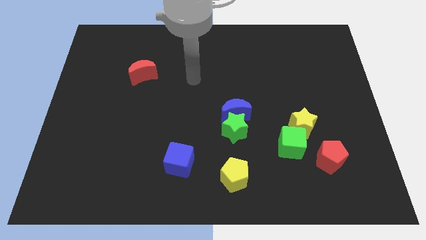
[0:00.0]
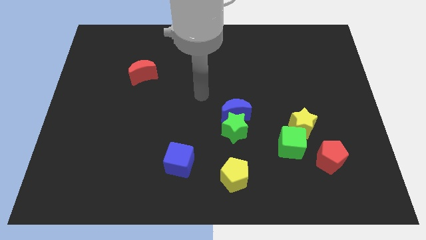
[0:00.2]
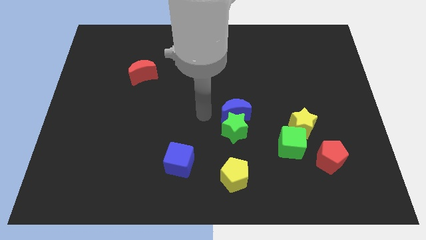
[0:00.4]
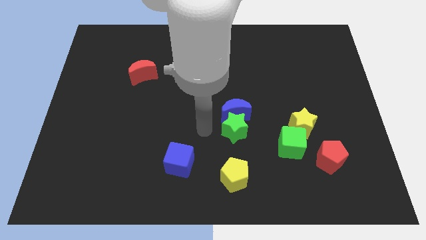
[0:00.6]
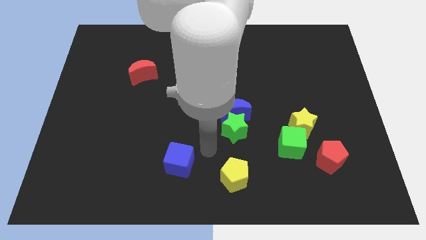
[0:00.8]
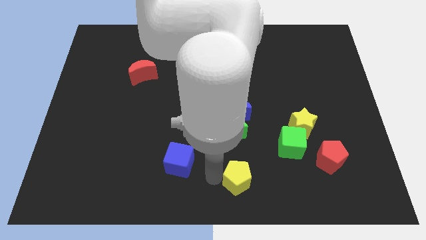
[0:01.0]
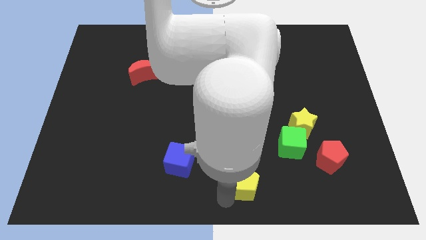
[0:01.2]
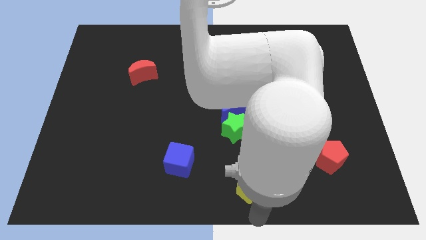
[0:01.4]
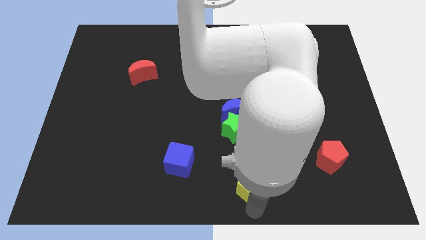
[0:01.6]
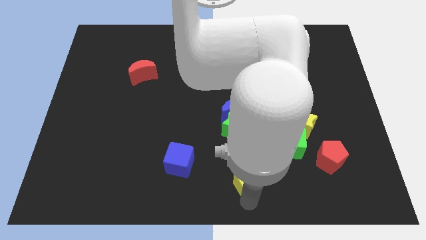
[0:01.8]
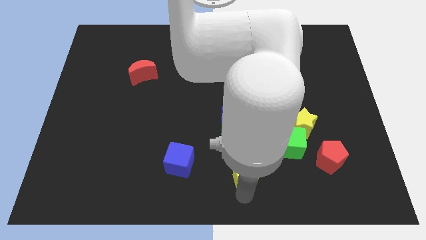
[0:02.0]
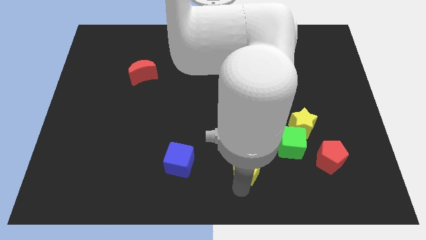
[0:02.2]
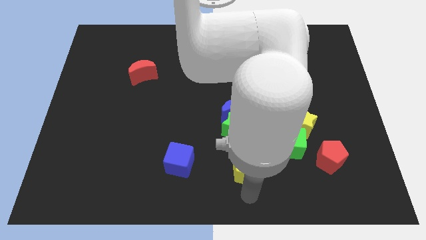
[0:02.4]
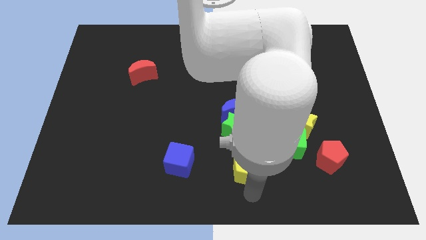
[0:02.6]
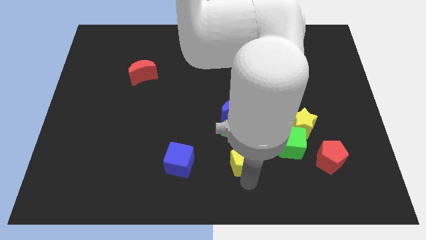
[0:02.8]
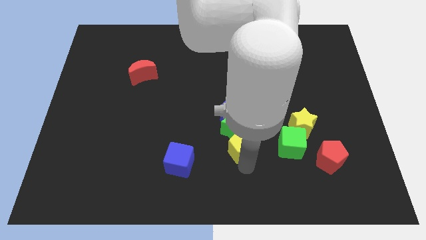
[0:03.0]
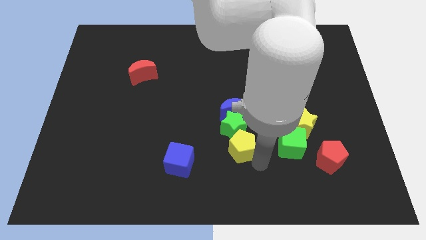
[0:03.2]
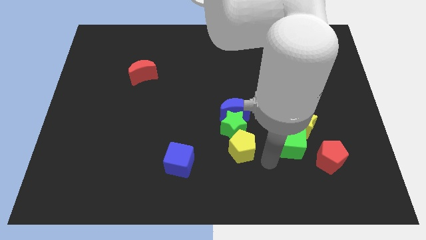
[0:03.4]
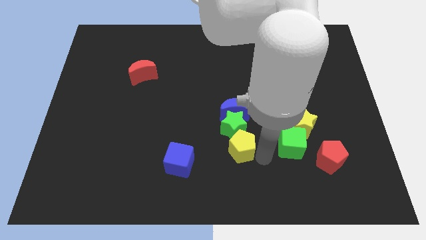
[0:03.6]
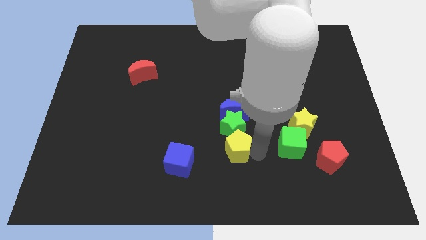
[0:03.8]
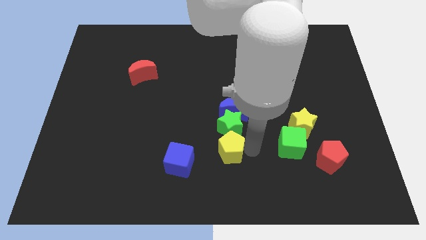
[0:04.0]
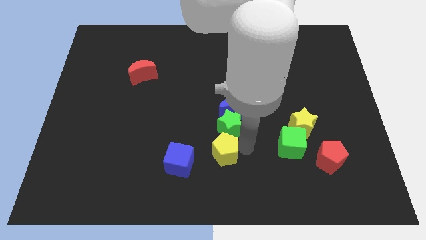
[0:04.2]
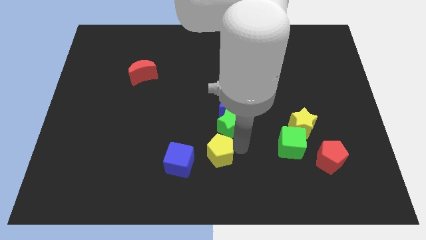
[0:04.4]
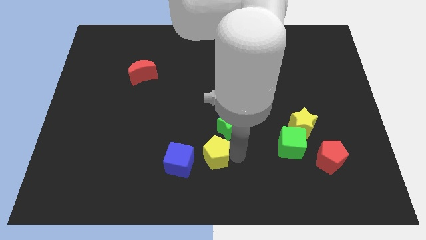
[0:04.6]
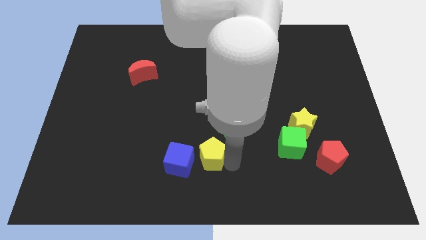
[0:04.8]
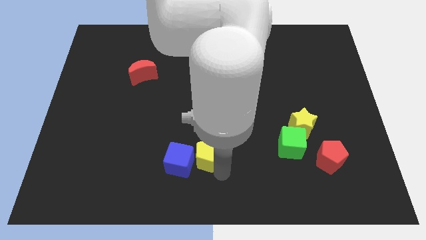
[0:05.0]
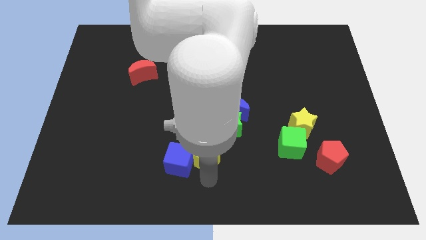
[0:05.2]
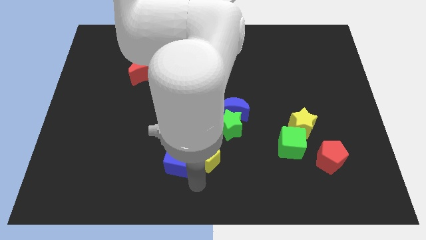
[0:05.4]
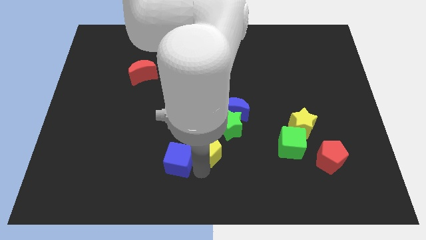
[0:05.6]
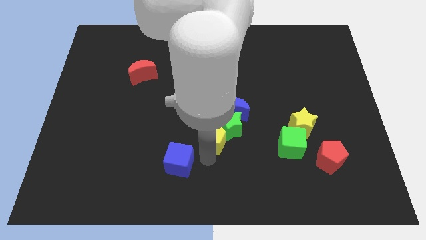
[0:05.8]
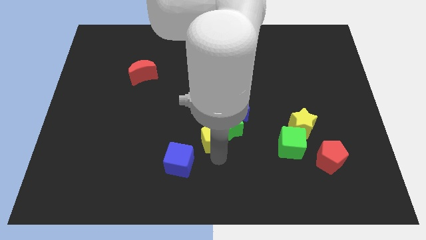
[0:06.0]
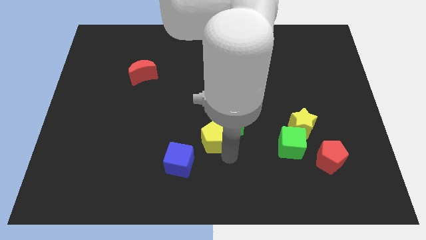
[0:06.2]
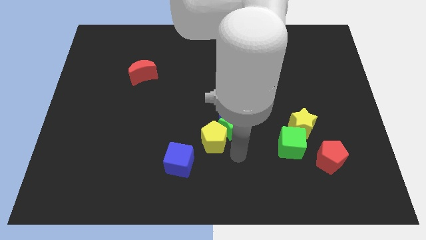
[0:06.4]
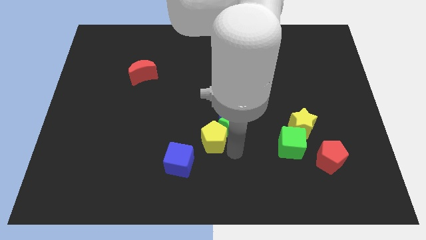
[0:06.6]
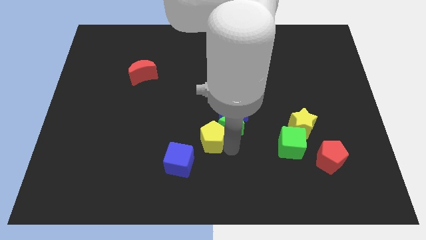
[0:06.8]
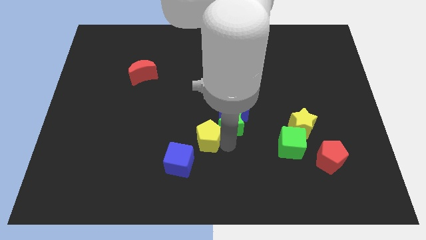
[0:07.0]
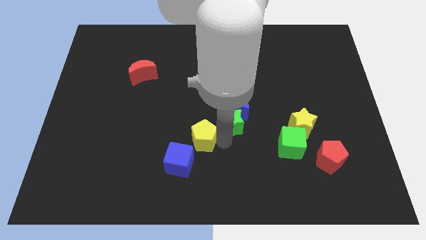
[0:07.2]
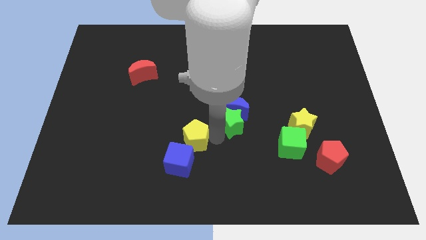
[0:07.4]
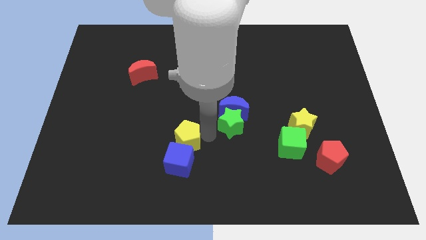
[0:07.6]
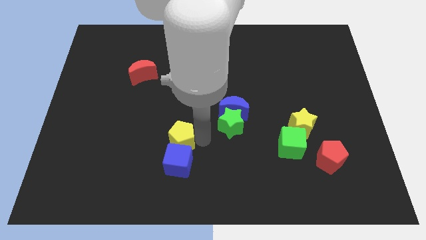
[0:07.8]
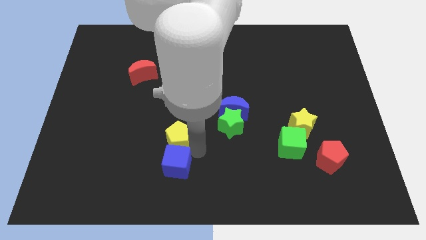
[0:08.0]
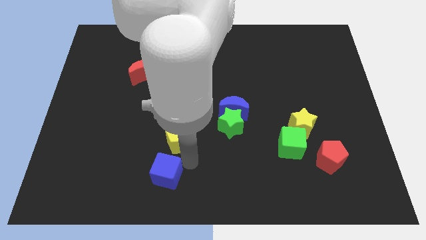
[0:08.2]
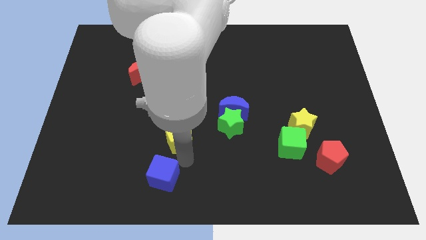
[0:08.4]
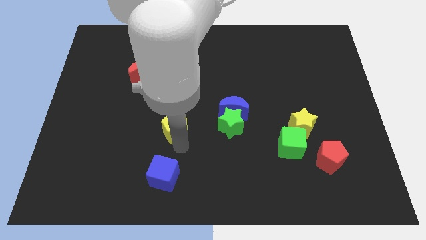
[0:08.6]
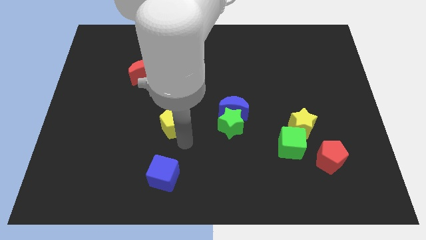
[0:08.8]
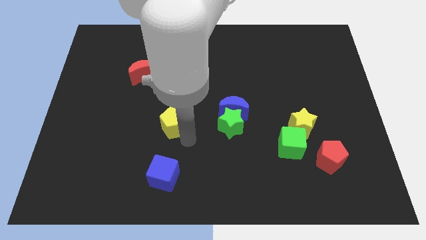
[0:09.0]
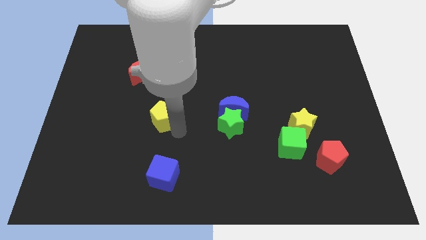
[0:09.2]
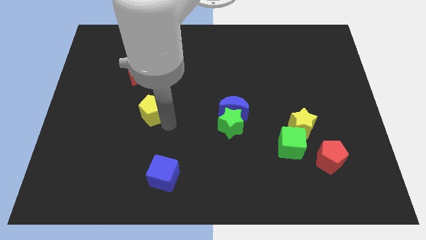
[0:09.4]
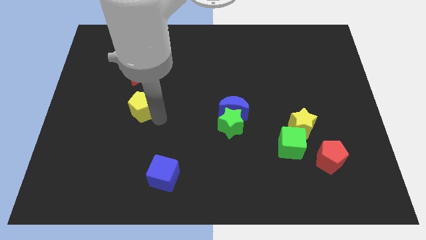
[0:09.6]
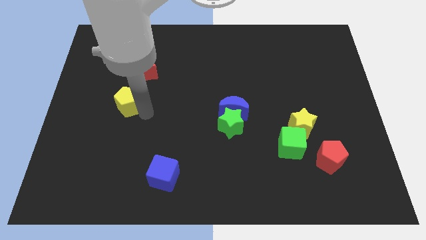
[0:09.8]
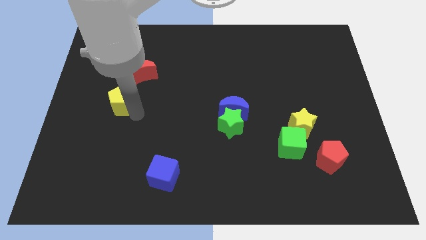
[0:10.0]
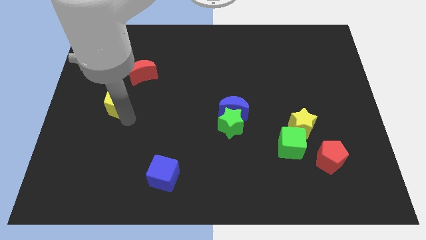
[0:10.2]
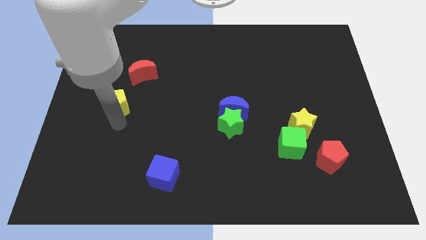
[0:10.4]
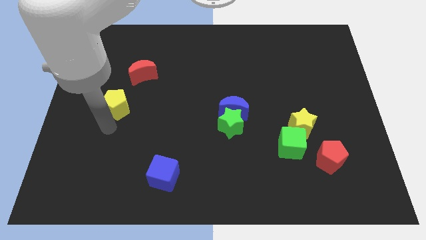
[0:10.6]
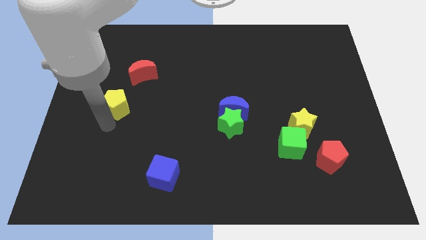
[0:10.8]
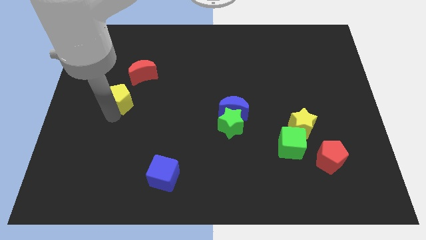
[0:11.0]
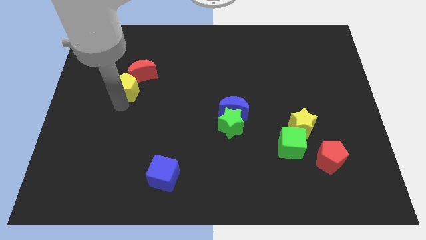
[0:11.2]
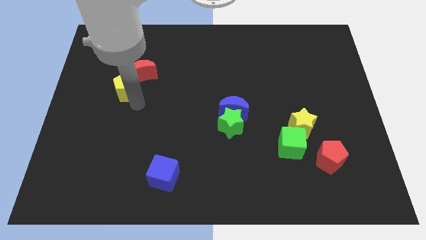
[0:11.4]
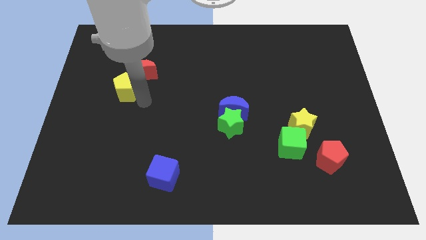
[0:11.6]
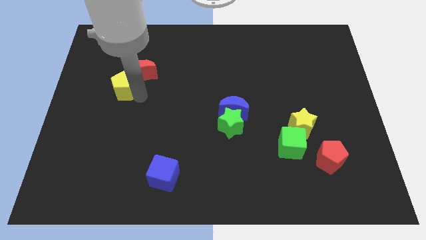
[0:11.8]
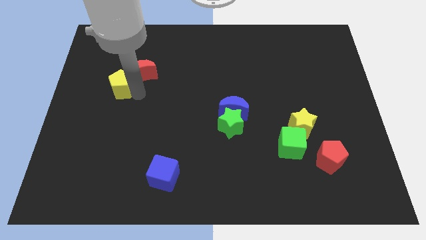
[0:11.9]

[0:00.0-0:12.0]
put the yellow pentagon left of the red moon

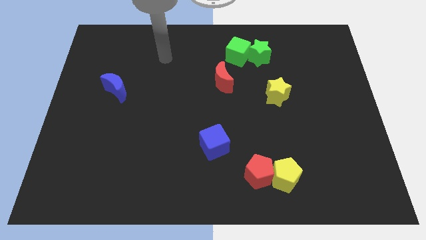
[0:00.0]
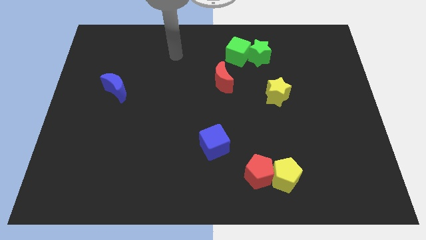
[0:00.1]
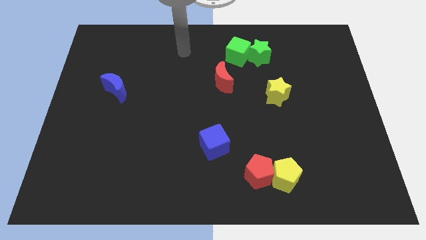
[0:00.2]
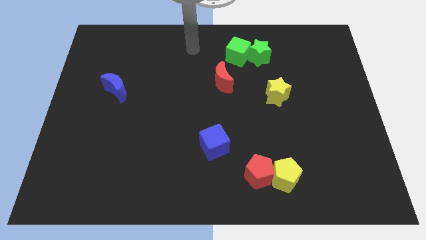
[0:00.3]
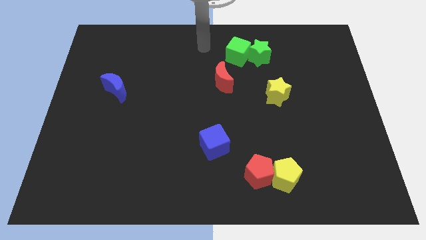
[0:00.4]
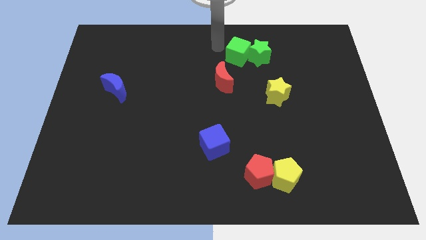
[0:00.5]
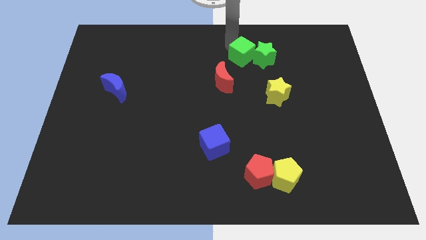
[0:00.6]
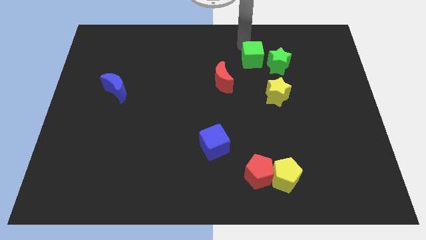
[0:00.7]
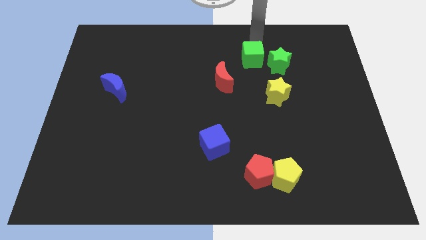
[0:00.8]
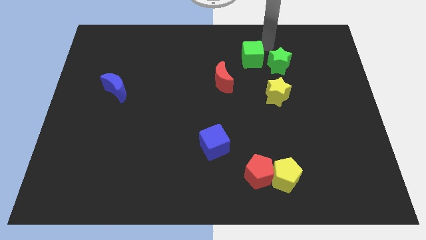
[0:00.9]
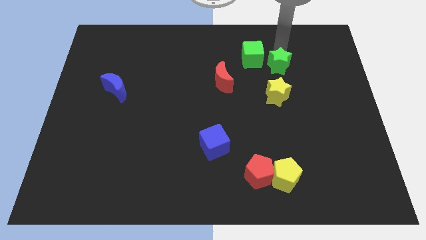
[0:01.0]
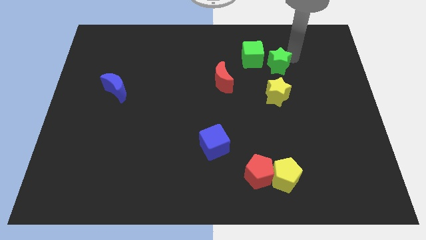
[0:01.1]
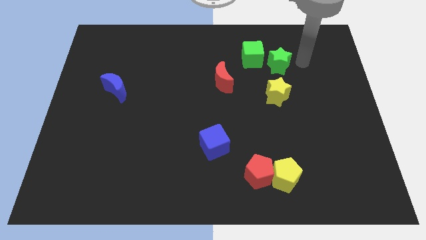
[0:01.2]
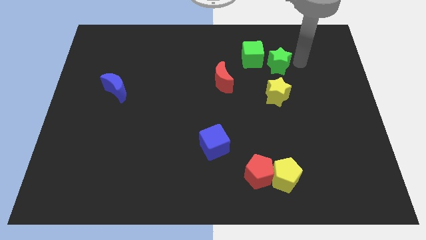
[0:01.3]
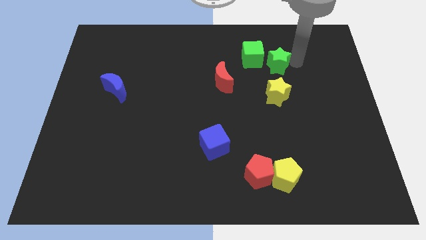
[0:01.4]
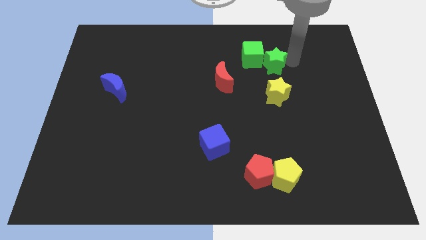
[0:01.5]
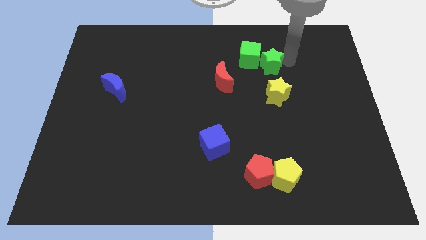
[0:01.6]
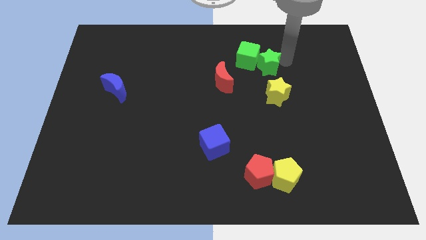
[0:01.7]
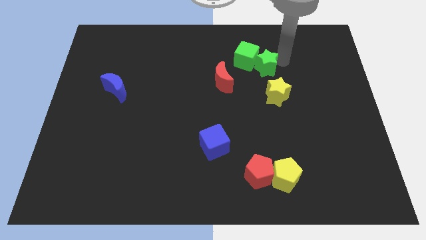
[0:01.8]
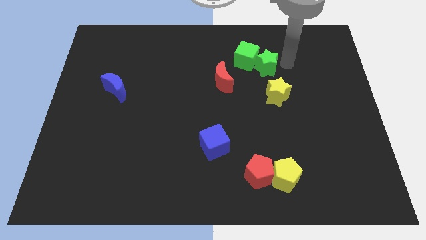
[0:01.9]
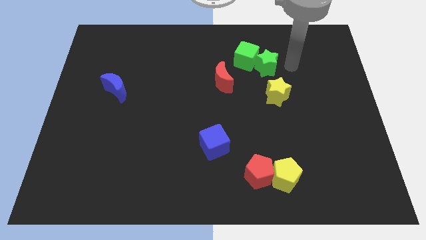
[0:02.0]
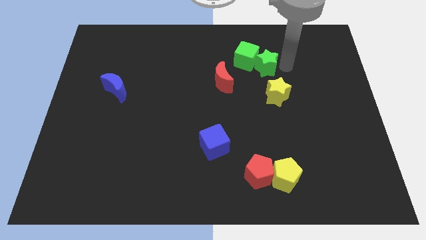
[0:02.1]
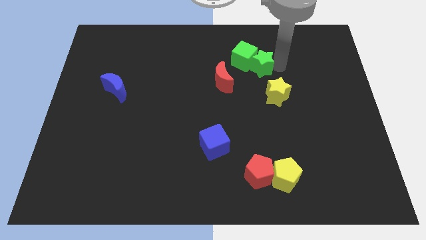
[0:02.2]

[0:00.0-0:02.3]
put the green star to the top right of the red moon
